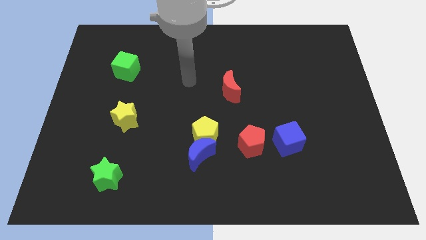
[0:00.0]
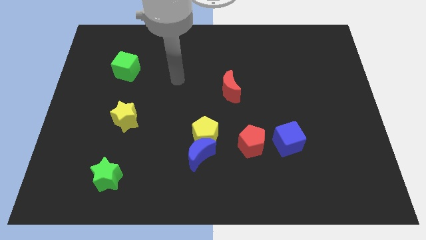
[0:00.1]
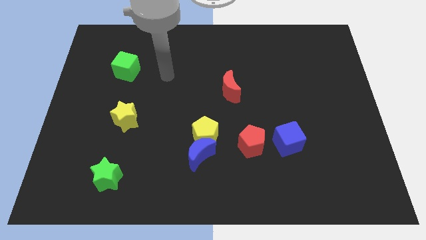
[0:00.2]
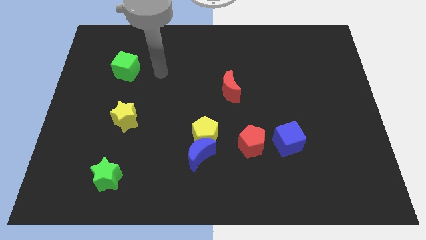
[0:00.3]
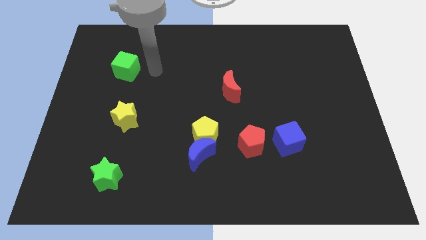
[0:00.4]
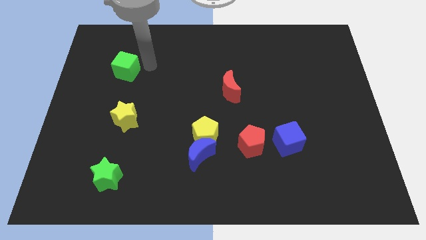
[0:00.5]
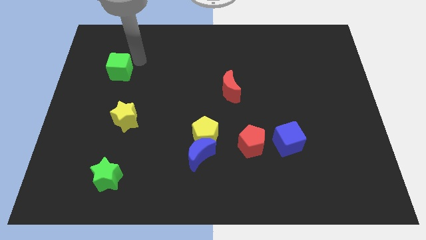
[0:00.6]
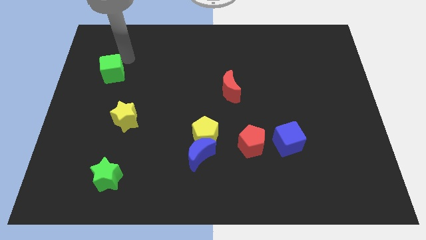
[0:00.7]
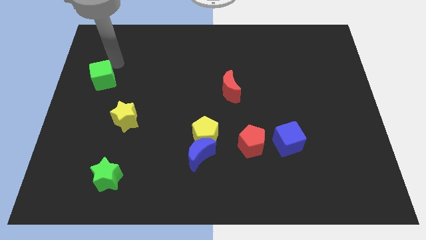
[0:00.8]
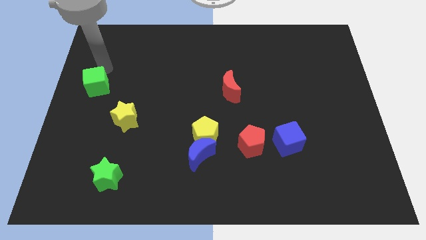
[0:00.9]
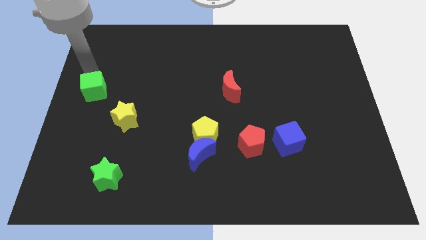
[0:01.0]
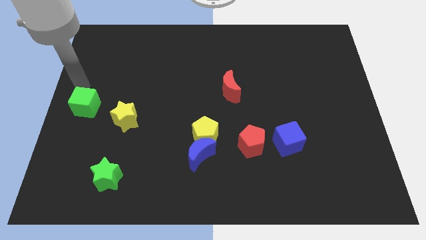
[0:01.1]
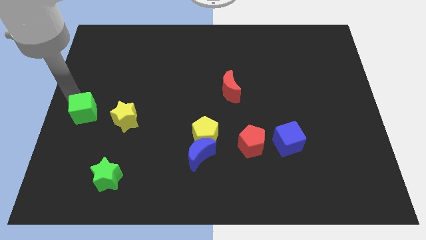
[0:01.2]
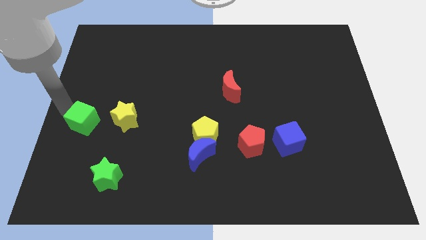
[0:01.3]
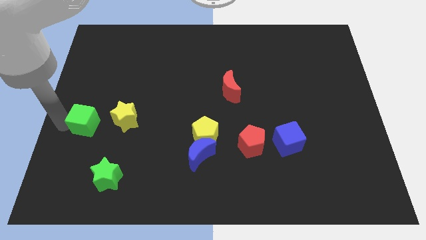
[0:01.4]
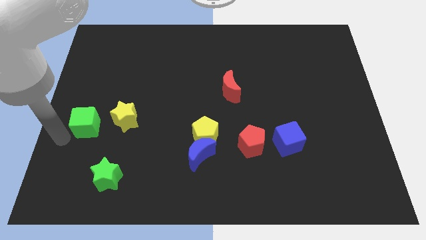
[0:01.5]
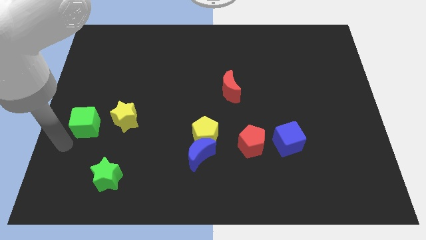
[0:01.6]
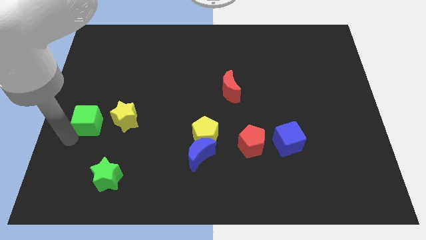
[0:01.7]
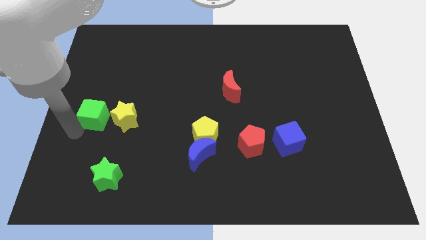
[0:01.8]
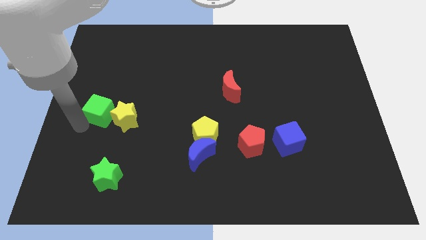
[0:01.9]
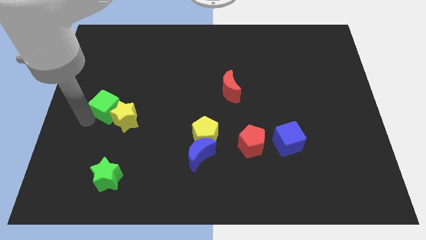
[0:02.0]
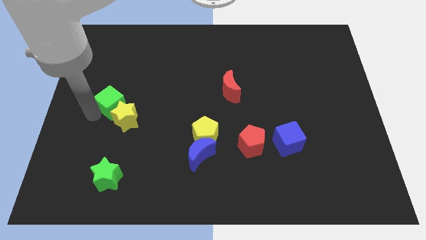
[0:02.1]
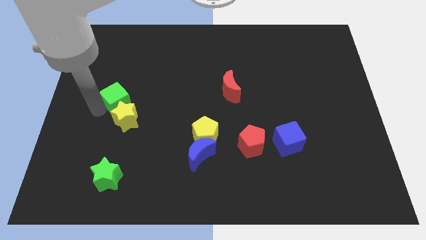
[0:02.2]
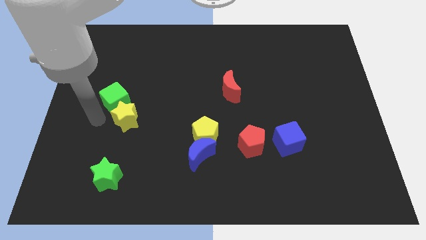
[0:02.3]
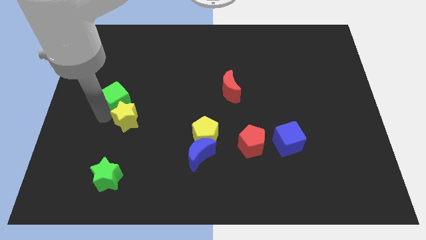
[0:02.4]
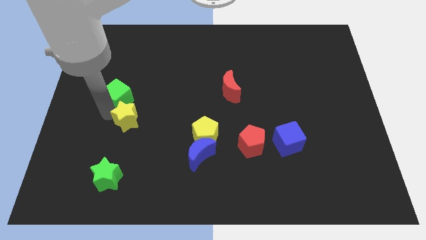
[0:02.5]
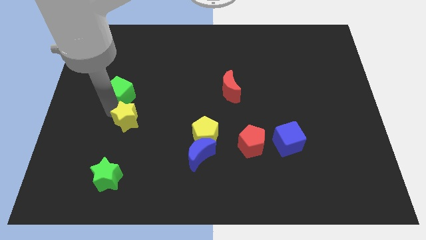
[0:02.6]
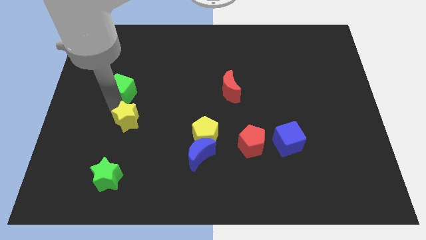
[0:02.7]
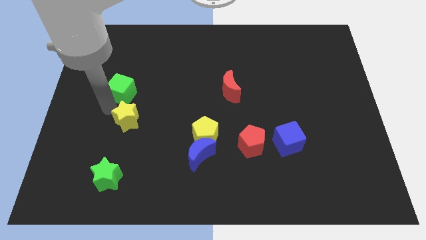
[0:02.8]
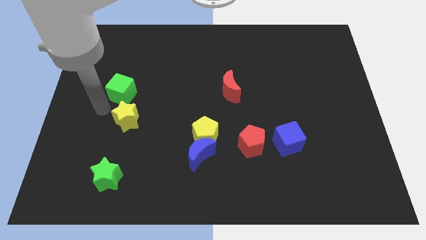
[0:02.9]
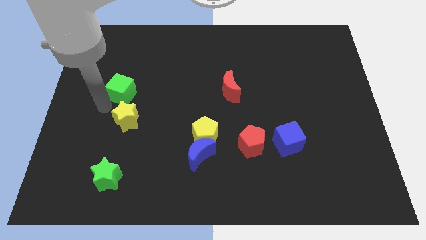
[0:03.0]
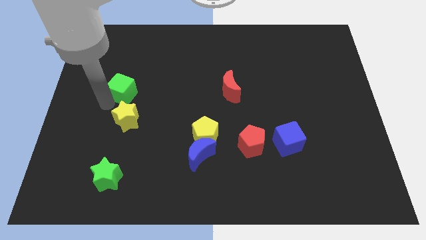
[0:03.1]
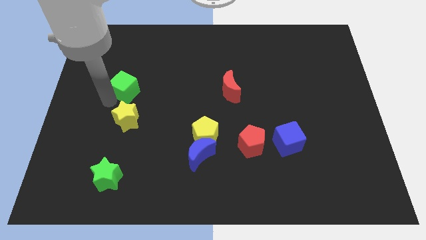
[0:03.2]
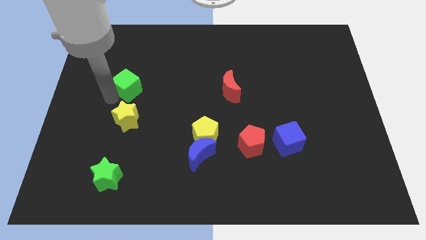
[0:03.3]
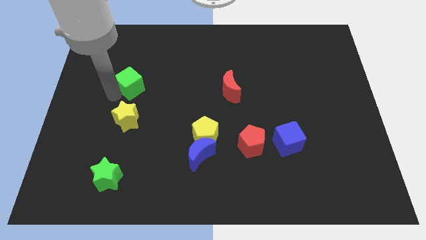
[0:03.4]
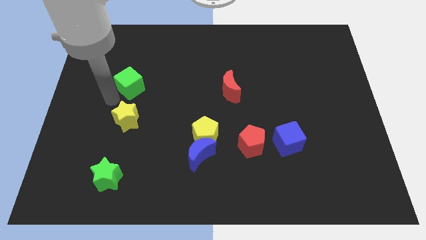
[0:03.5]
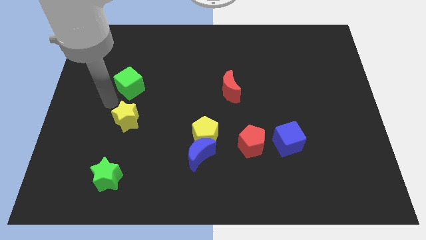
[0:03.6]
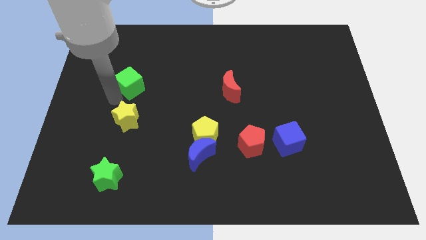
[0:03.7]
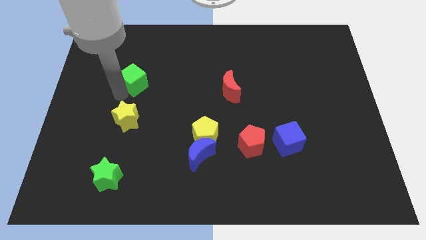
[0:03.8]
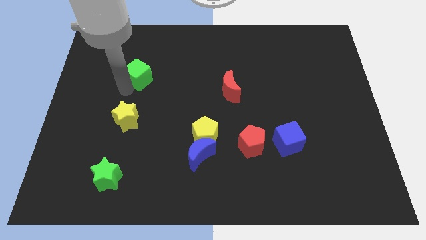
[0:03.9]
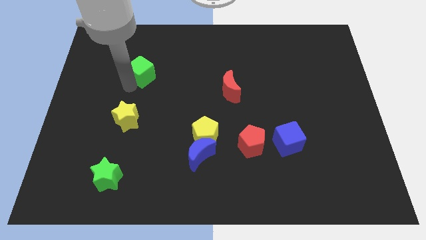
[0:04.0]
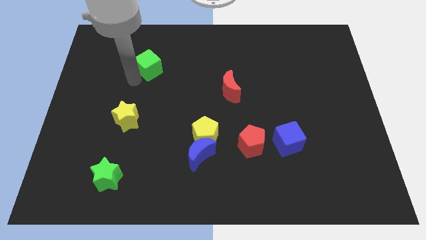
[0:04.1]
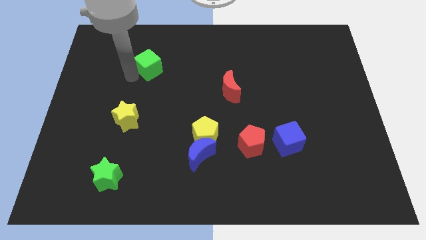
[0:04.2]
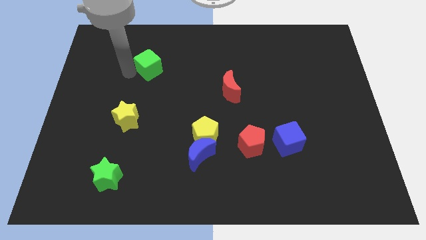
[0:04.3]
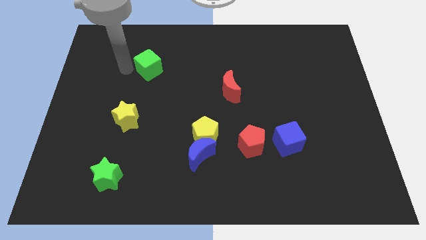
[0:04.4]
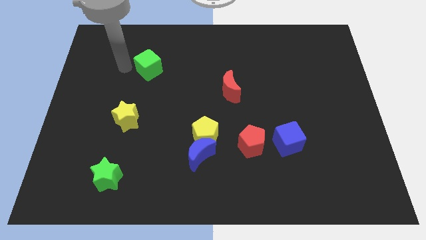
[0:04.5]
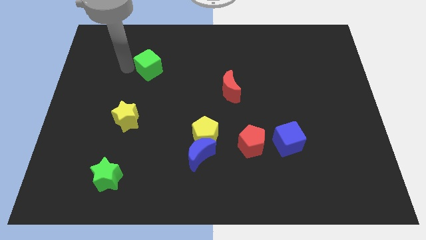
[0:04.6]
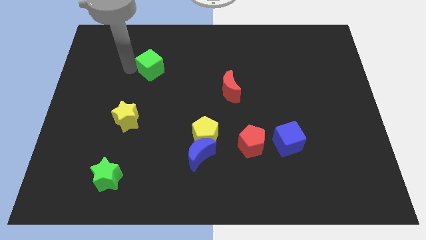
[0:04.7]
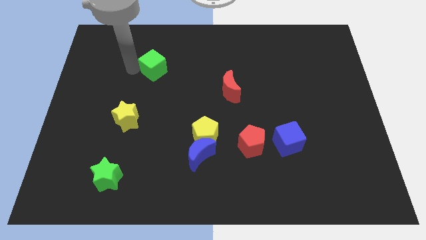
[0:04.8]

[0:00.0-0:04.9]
push the green cube to the right a bit

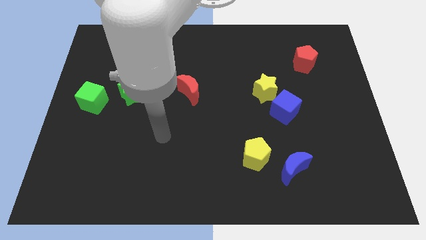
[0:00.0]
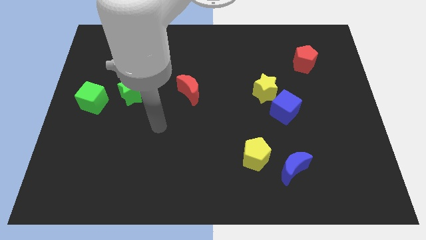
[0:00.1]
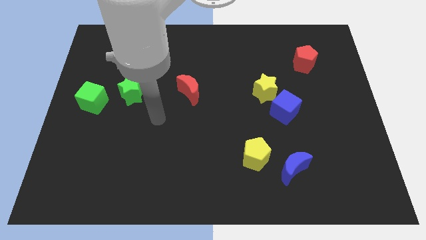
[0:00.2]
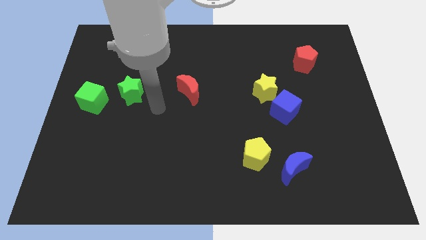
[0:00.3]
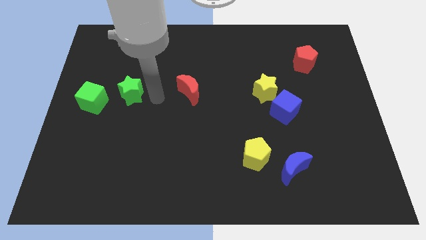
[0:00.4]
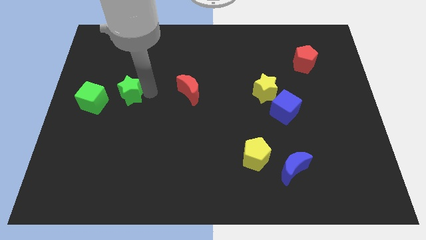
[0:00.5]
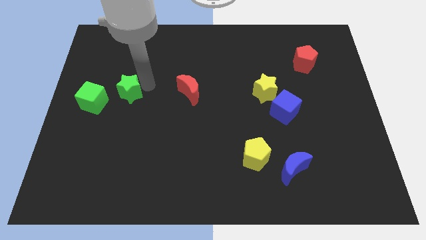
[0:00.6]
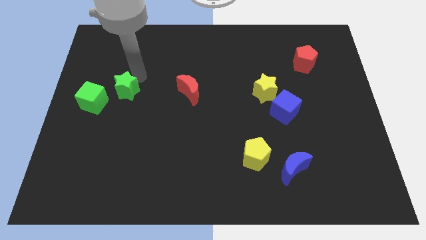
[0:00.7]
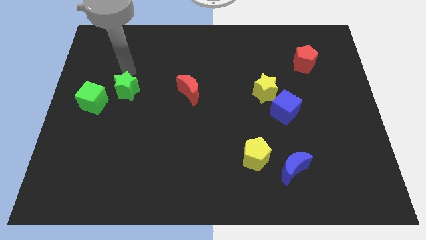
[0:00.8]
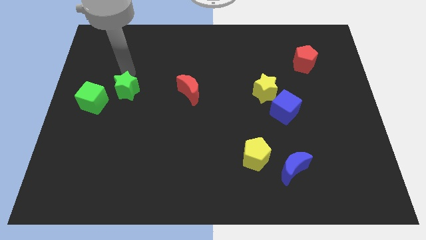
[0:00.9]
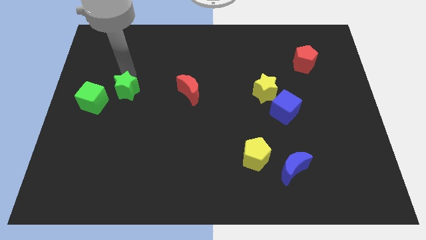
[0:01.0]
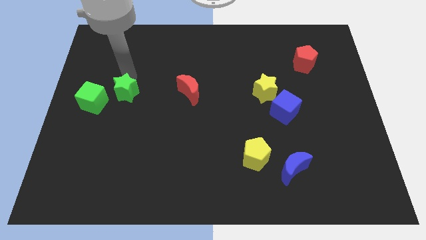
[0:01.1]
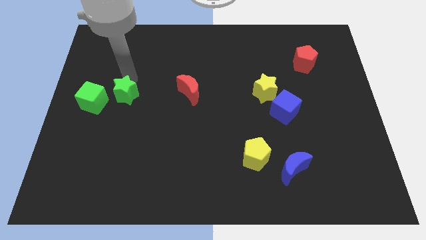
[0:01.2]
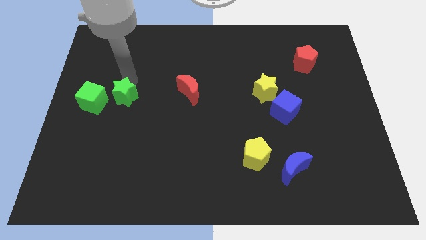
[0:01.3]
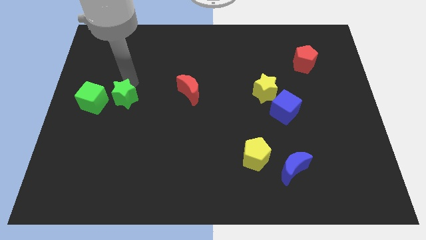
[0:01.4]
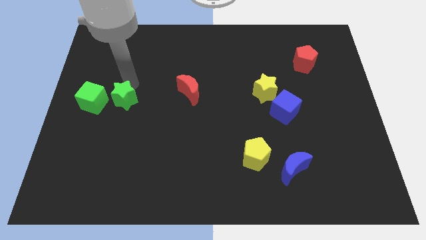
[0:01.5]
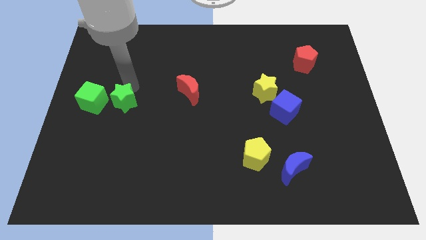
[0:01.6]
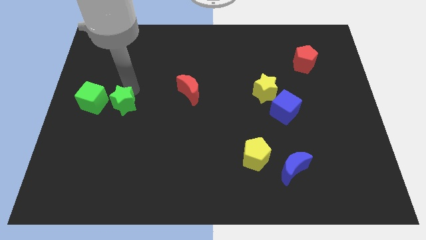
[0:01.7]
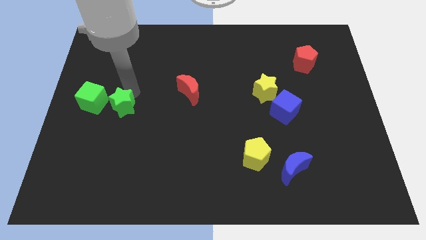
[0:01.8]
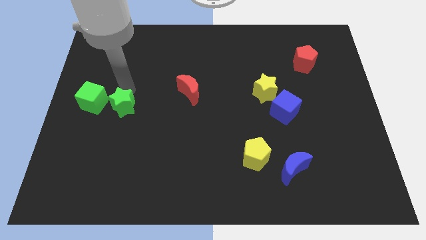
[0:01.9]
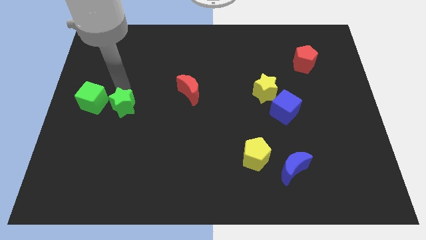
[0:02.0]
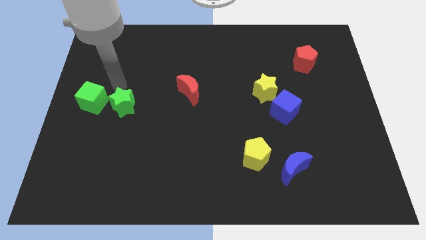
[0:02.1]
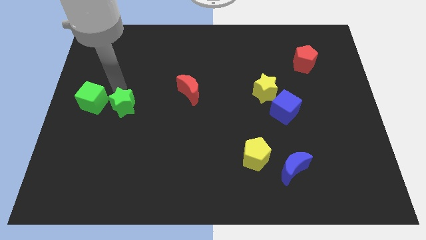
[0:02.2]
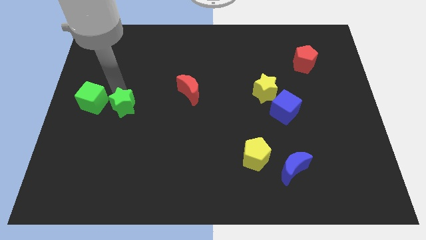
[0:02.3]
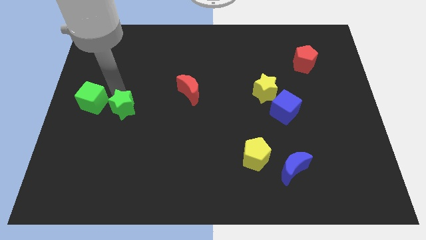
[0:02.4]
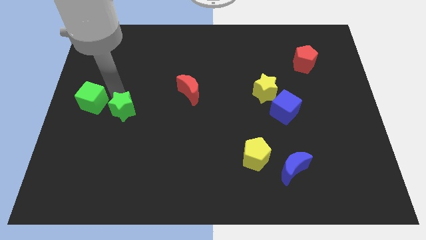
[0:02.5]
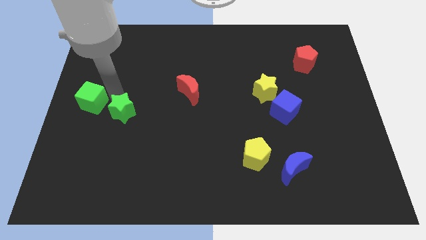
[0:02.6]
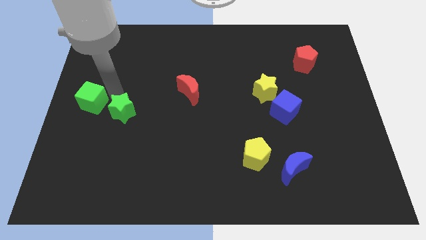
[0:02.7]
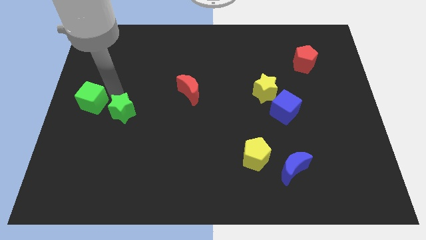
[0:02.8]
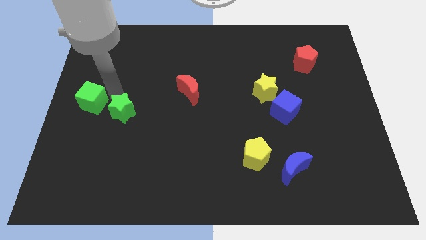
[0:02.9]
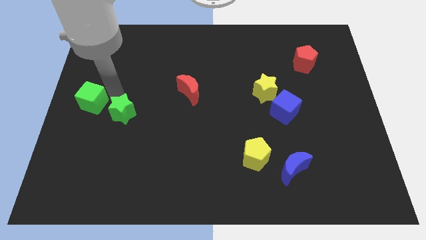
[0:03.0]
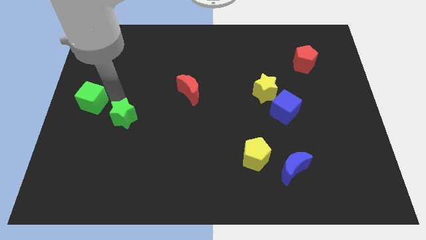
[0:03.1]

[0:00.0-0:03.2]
push the green star downwards a little
